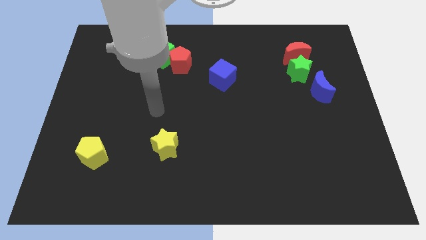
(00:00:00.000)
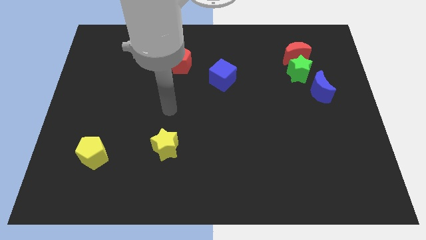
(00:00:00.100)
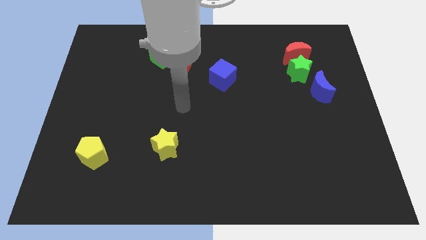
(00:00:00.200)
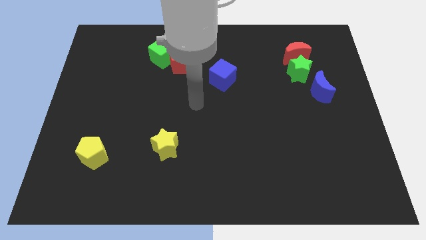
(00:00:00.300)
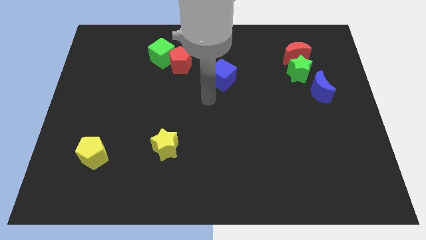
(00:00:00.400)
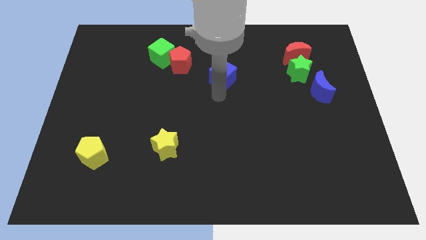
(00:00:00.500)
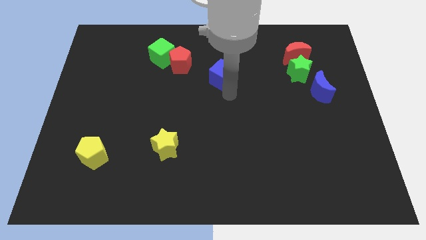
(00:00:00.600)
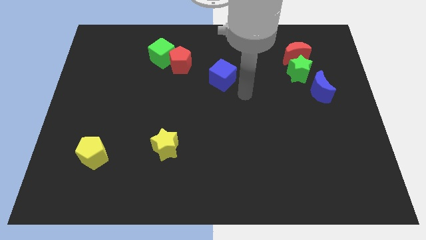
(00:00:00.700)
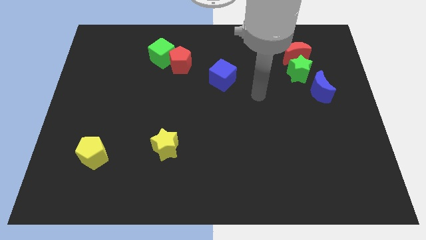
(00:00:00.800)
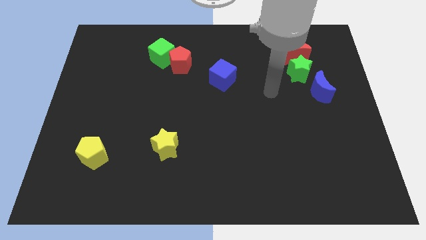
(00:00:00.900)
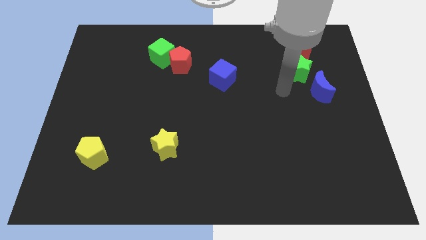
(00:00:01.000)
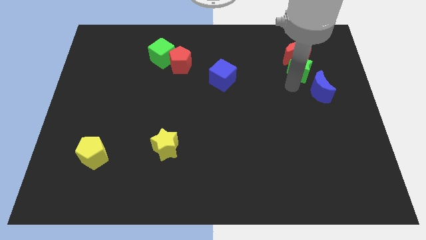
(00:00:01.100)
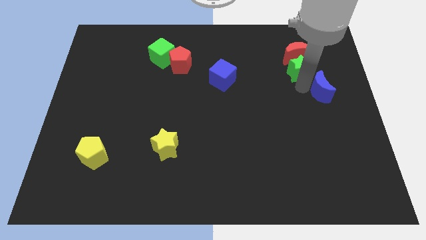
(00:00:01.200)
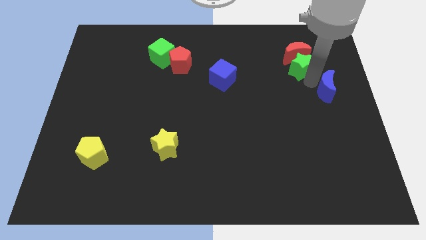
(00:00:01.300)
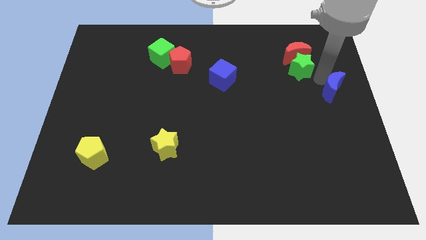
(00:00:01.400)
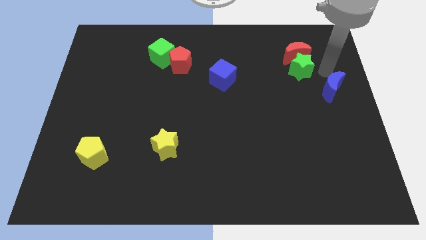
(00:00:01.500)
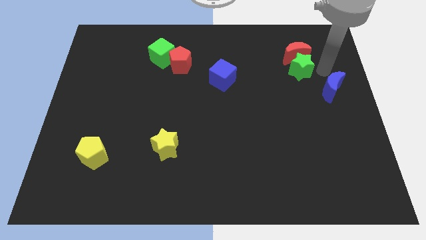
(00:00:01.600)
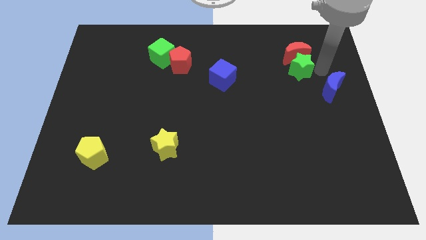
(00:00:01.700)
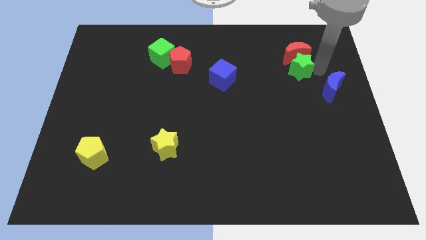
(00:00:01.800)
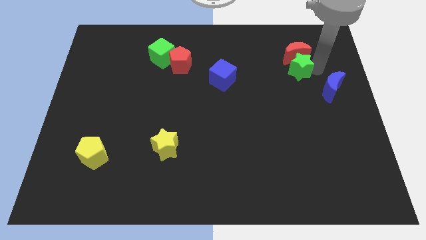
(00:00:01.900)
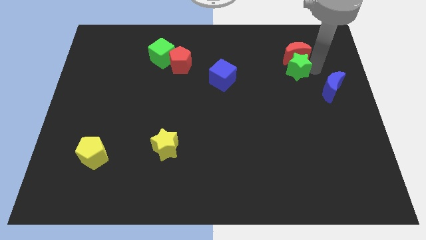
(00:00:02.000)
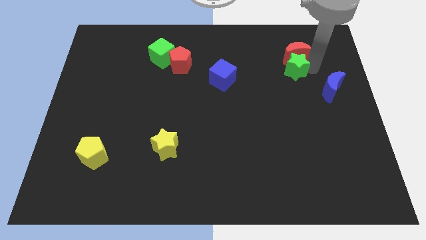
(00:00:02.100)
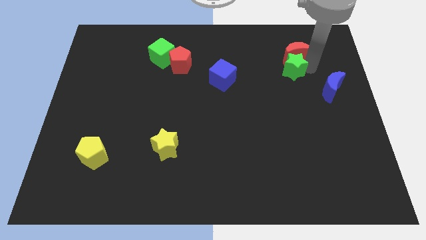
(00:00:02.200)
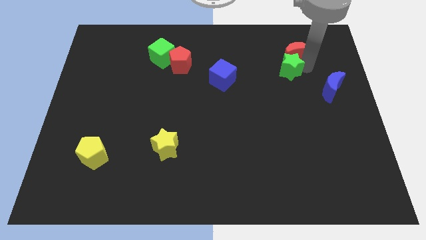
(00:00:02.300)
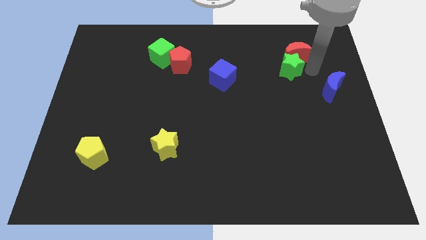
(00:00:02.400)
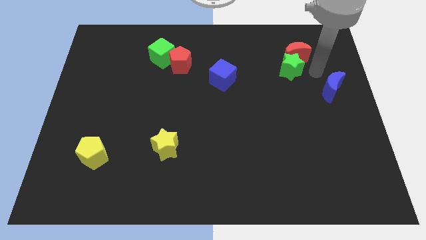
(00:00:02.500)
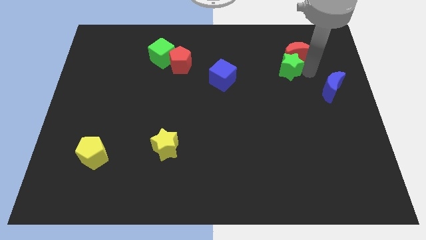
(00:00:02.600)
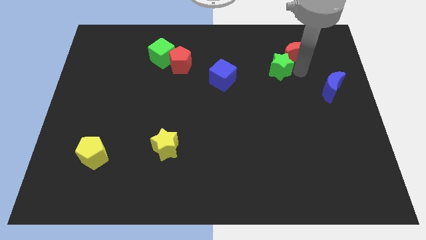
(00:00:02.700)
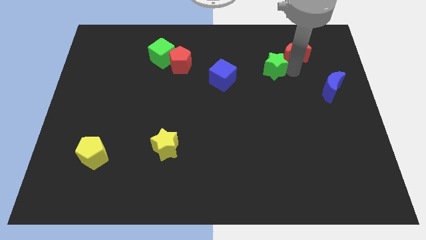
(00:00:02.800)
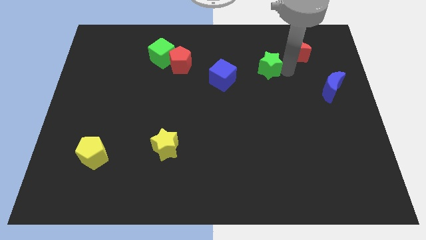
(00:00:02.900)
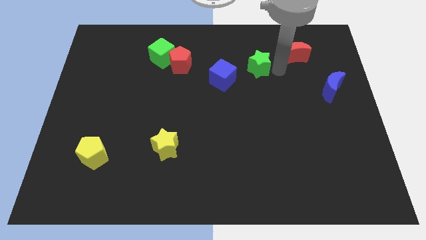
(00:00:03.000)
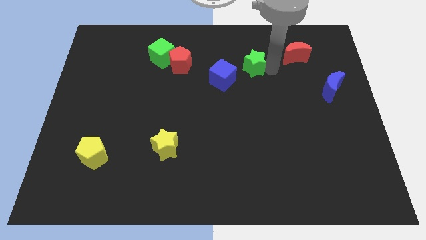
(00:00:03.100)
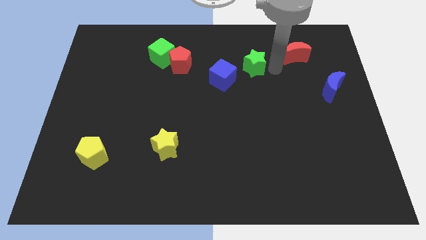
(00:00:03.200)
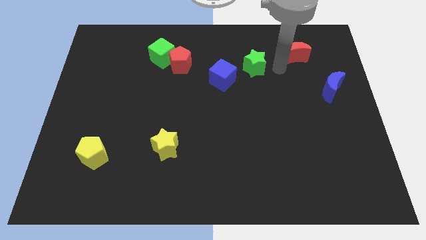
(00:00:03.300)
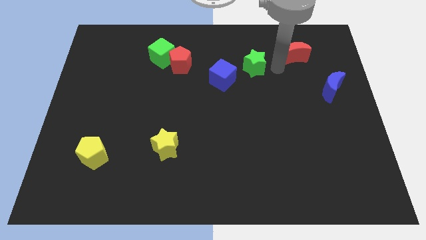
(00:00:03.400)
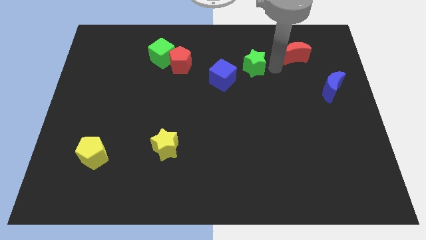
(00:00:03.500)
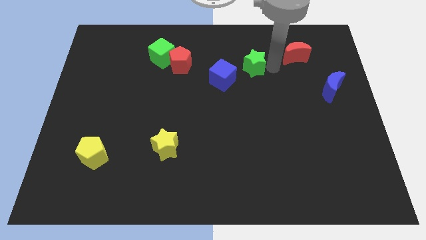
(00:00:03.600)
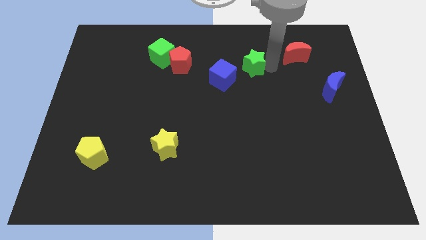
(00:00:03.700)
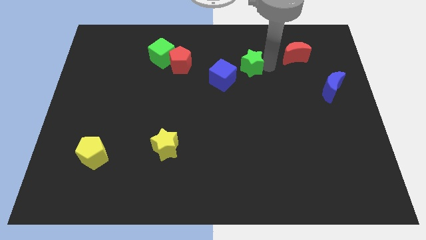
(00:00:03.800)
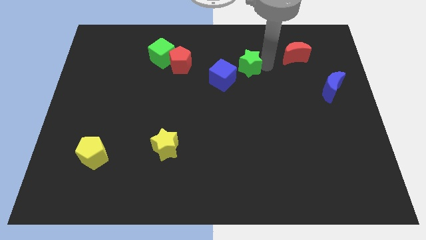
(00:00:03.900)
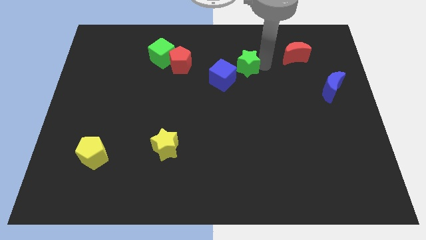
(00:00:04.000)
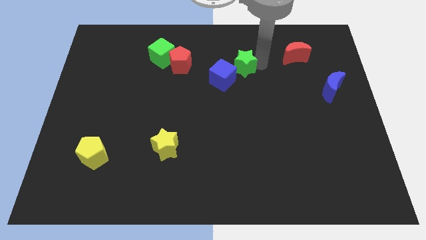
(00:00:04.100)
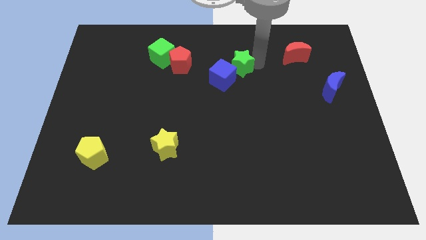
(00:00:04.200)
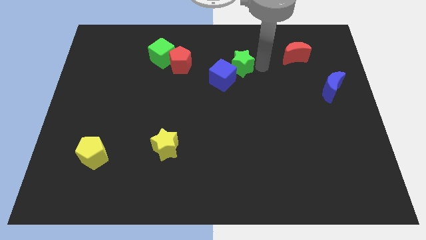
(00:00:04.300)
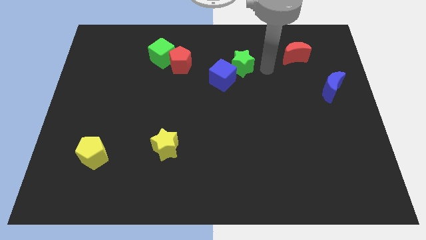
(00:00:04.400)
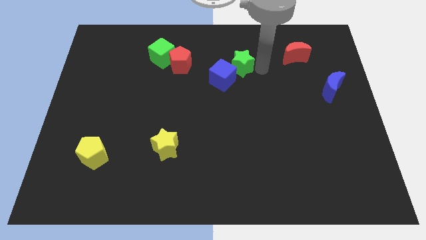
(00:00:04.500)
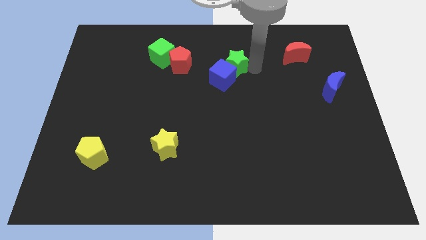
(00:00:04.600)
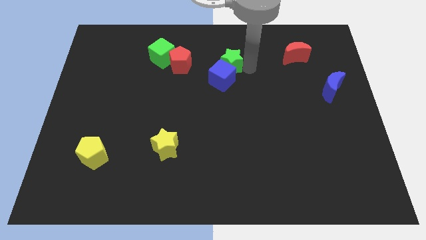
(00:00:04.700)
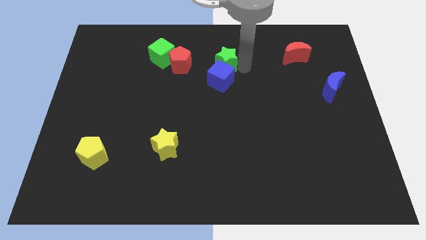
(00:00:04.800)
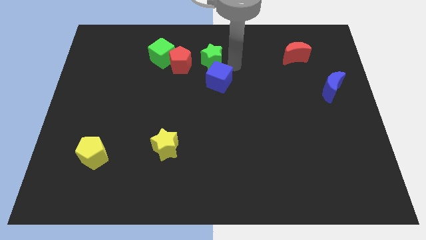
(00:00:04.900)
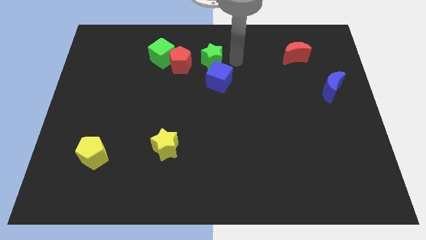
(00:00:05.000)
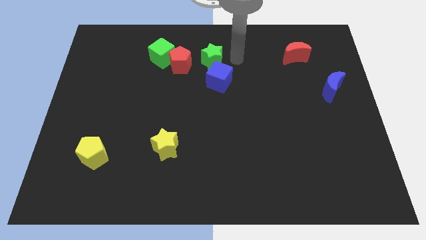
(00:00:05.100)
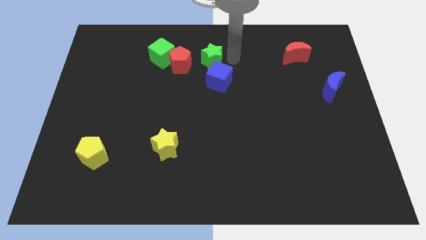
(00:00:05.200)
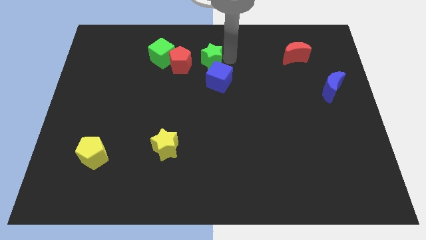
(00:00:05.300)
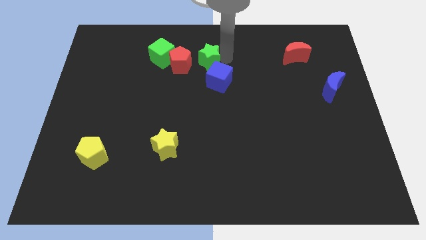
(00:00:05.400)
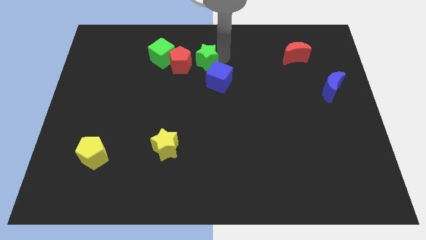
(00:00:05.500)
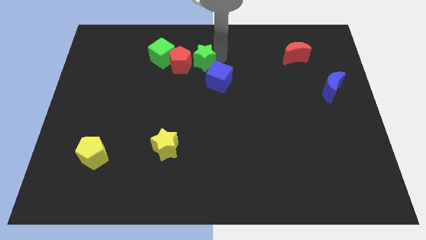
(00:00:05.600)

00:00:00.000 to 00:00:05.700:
push the green star next to the red pentagon

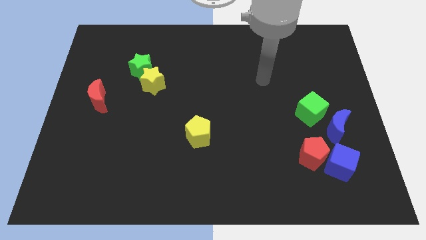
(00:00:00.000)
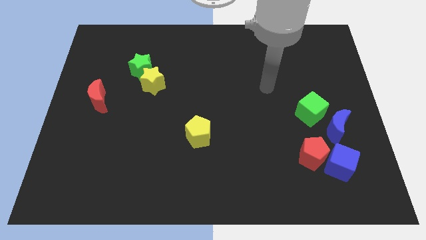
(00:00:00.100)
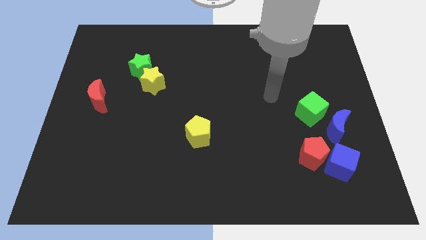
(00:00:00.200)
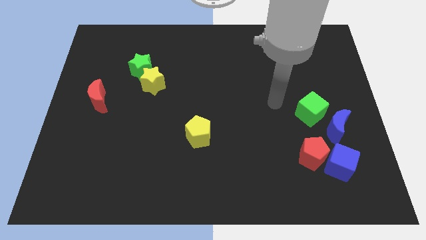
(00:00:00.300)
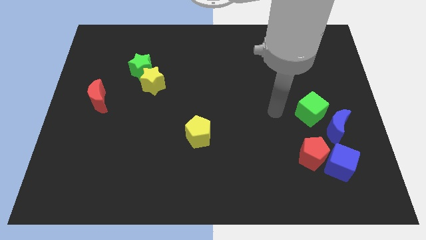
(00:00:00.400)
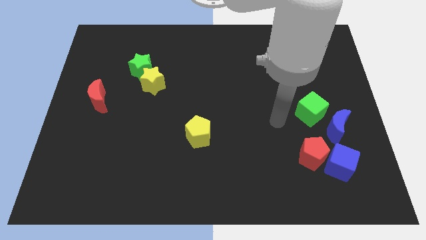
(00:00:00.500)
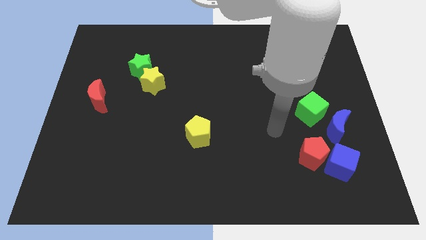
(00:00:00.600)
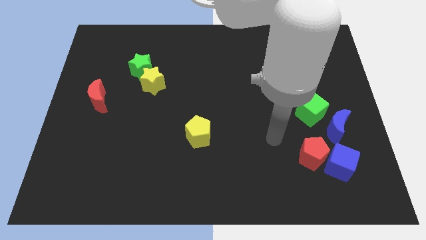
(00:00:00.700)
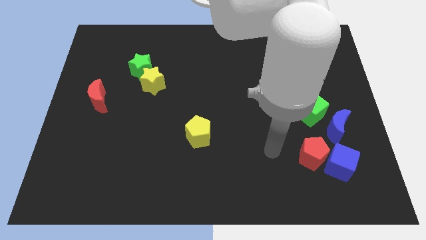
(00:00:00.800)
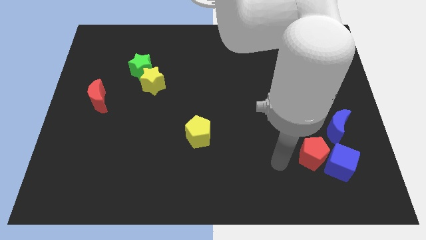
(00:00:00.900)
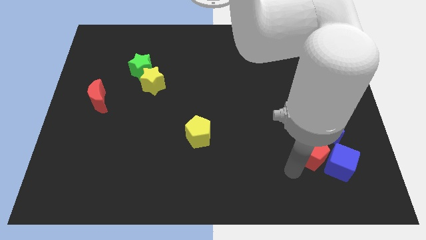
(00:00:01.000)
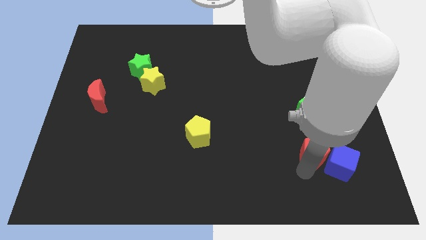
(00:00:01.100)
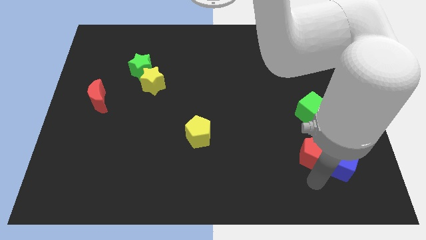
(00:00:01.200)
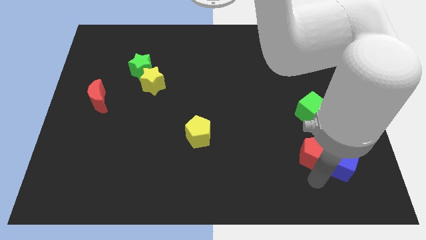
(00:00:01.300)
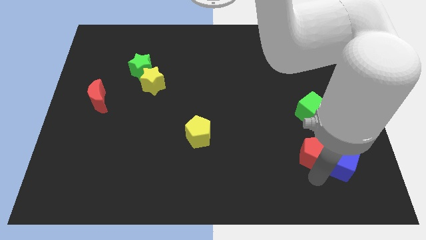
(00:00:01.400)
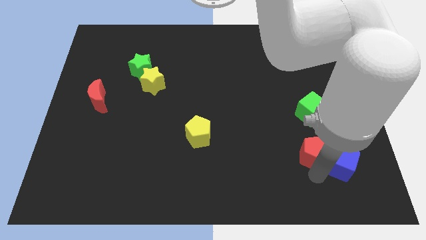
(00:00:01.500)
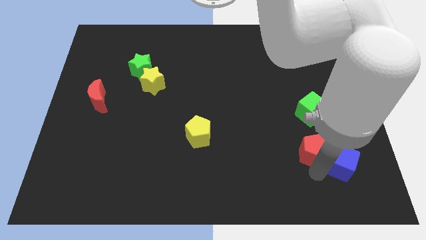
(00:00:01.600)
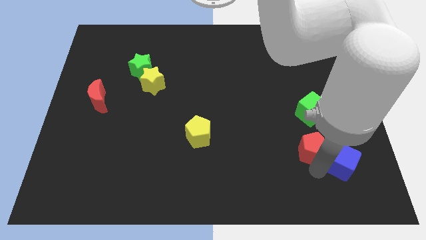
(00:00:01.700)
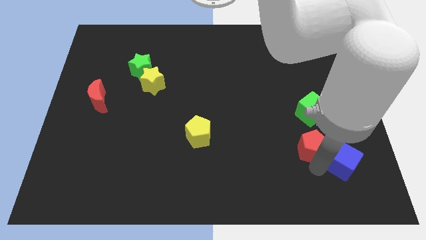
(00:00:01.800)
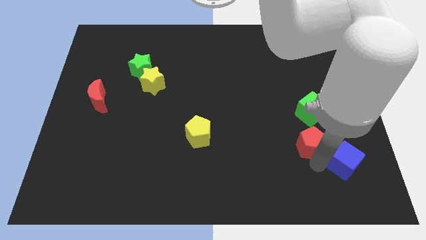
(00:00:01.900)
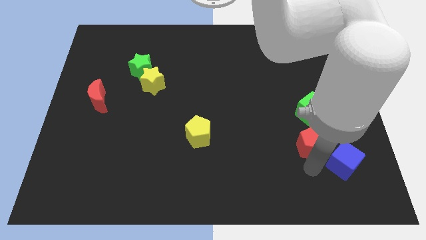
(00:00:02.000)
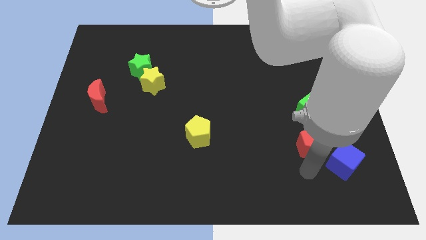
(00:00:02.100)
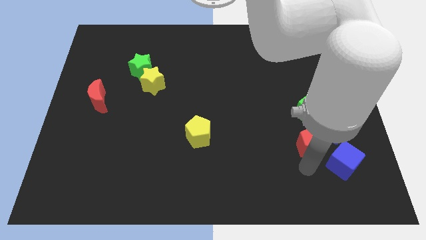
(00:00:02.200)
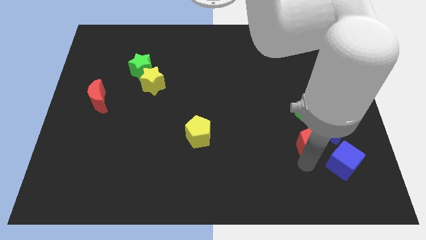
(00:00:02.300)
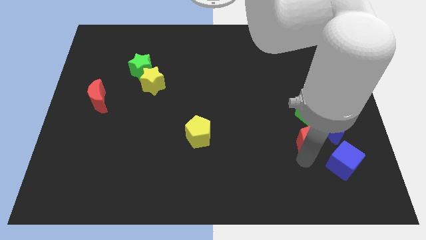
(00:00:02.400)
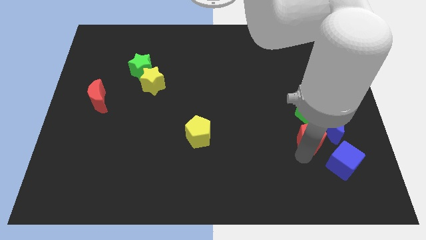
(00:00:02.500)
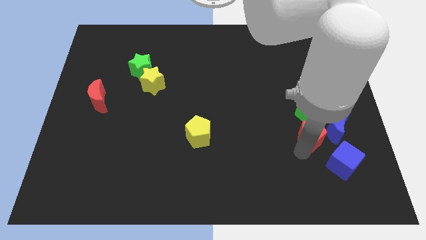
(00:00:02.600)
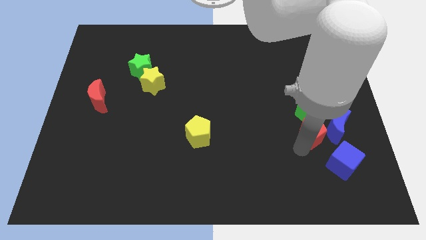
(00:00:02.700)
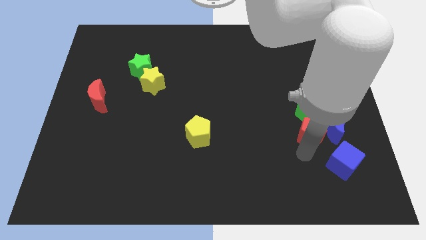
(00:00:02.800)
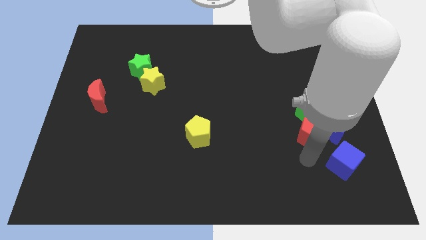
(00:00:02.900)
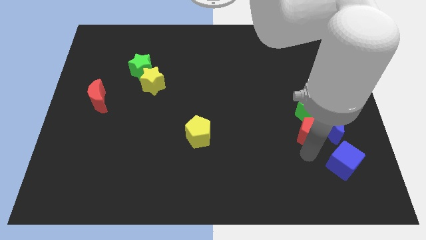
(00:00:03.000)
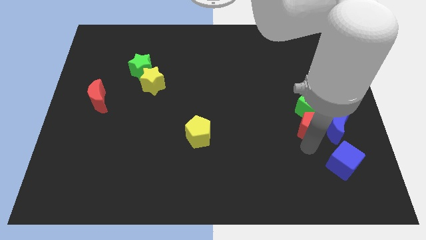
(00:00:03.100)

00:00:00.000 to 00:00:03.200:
put the red pentagon next to the green cube
